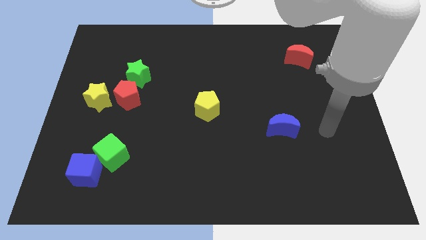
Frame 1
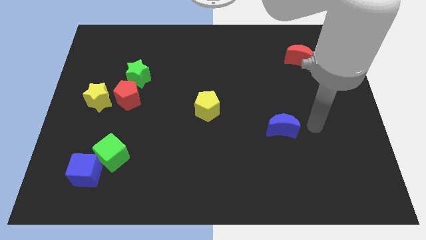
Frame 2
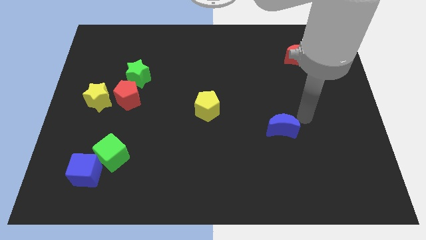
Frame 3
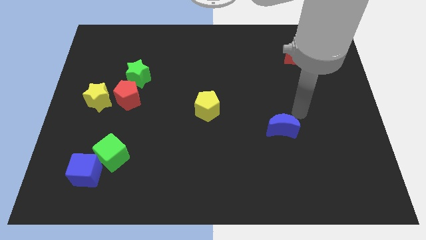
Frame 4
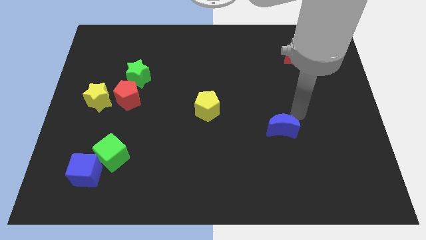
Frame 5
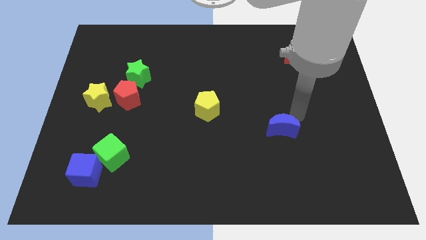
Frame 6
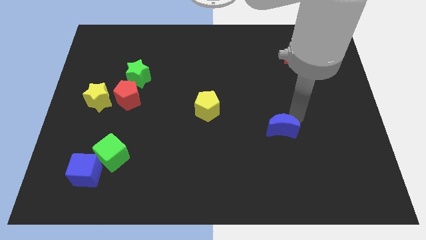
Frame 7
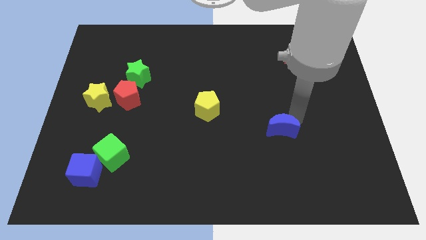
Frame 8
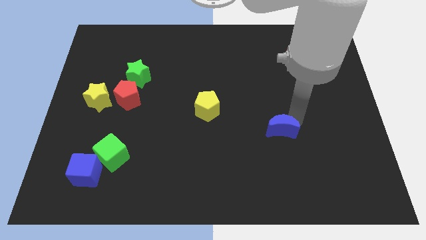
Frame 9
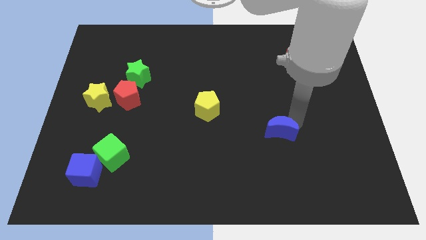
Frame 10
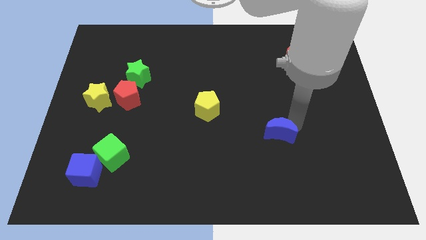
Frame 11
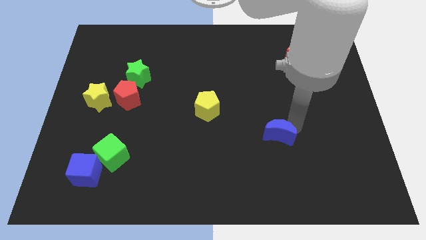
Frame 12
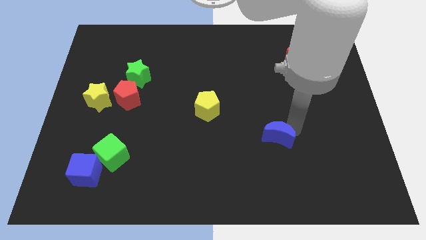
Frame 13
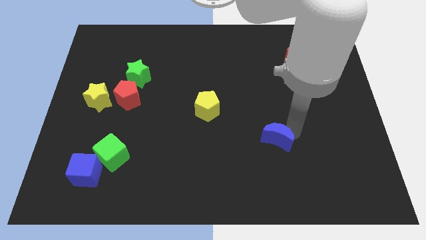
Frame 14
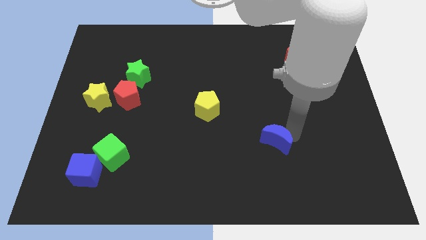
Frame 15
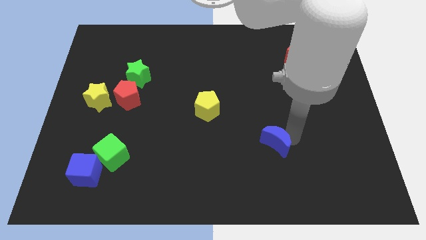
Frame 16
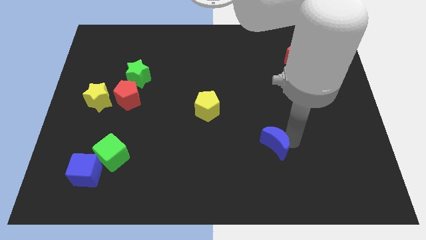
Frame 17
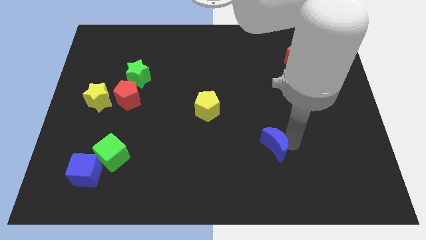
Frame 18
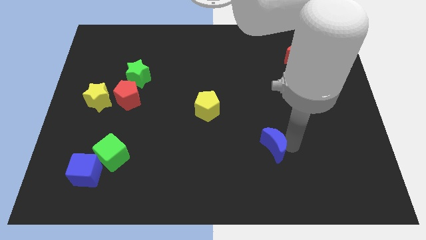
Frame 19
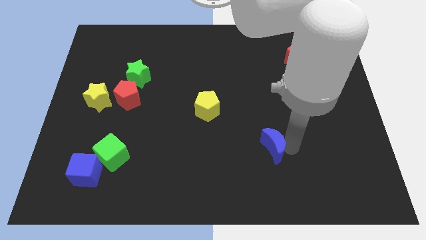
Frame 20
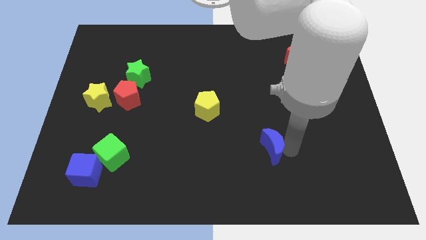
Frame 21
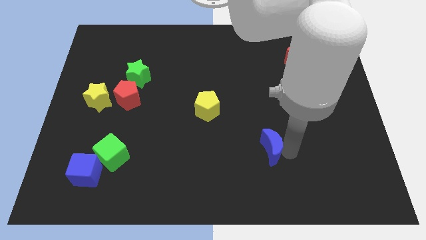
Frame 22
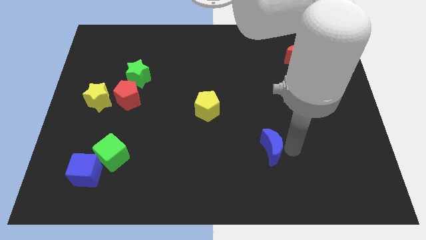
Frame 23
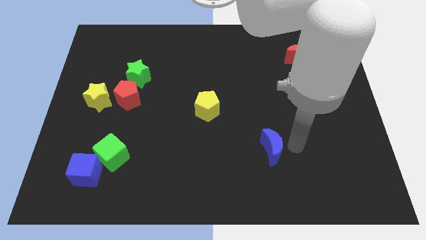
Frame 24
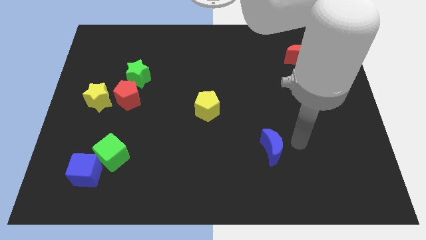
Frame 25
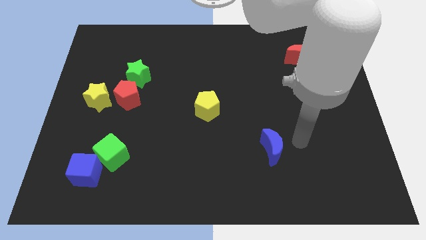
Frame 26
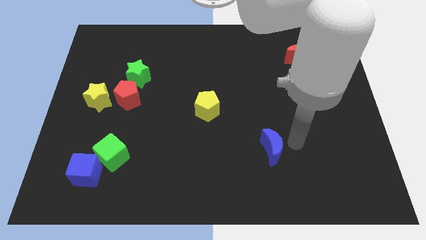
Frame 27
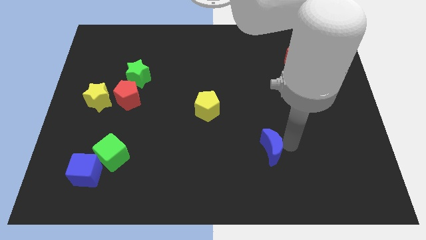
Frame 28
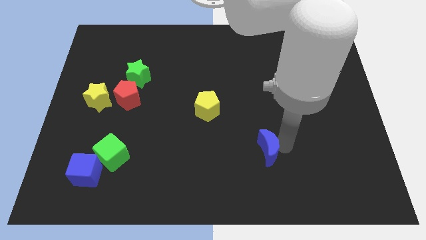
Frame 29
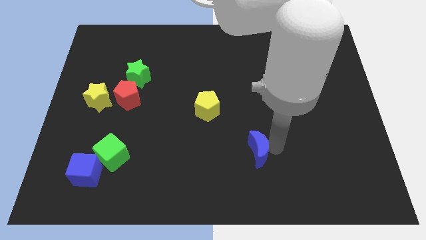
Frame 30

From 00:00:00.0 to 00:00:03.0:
push the blue moon diagonally down and left a little

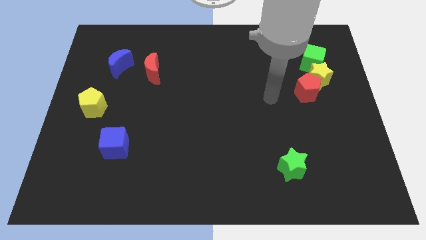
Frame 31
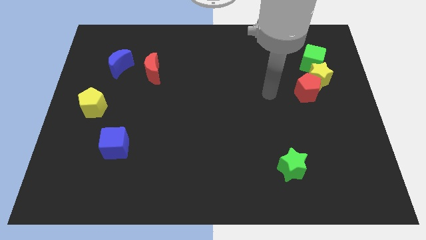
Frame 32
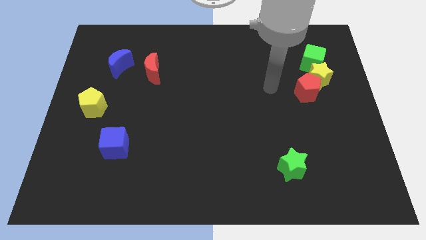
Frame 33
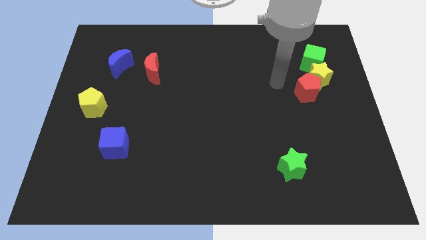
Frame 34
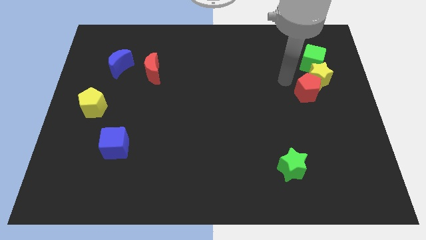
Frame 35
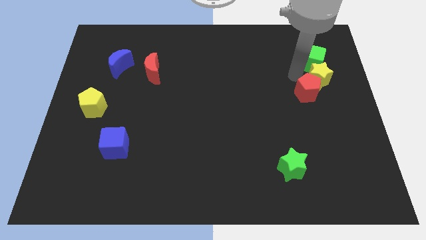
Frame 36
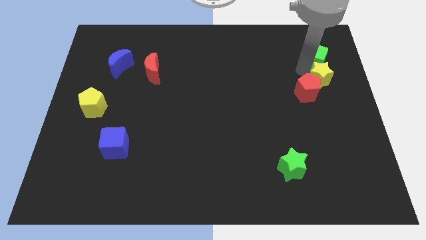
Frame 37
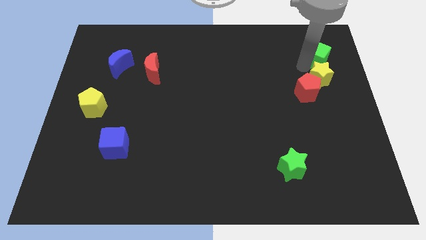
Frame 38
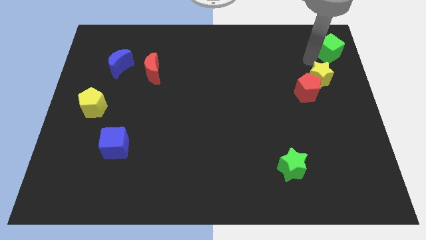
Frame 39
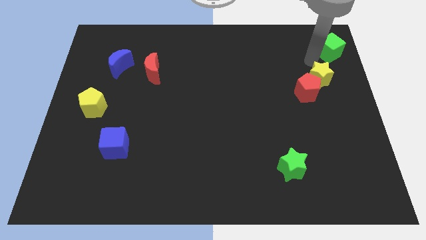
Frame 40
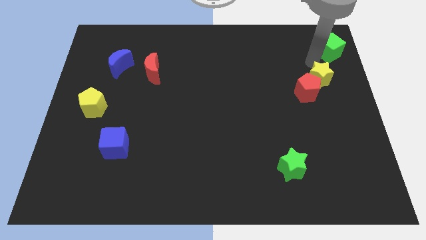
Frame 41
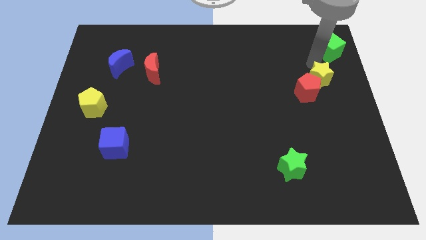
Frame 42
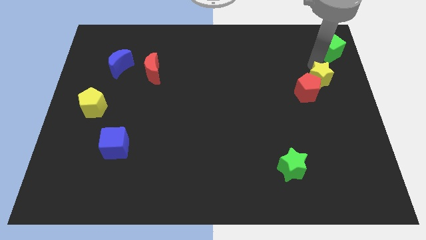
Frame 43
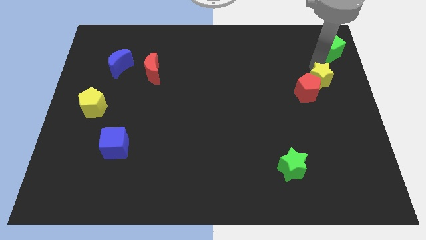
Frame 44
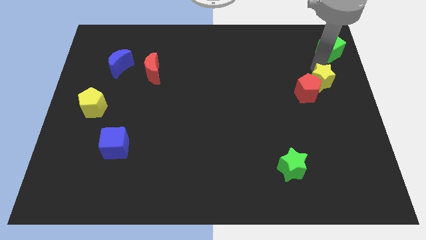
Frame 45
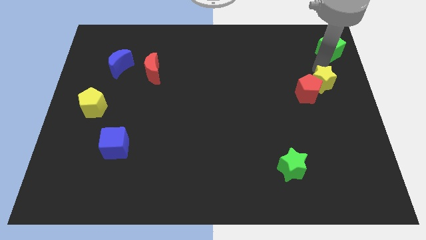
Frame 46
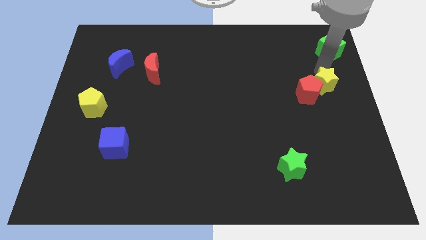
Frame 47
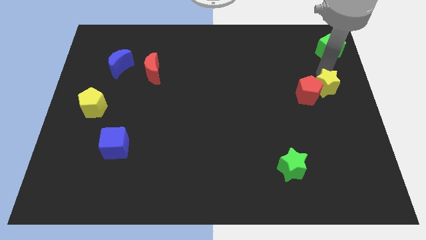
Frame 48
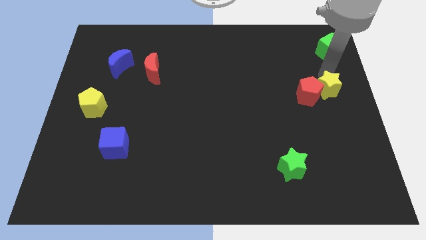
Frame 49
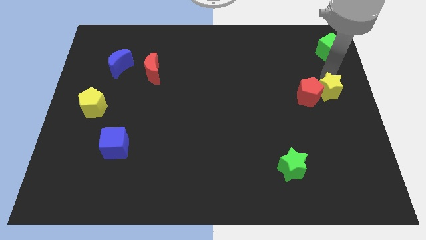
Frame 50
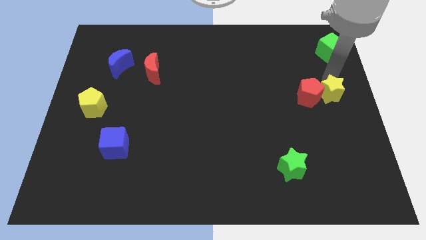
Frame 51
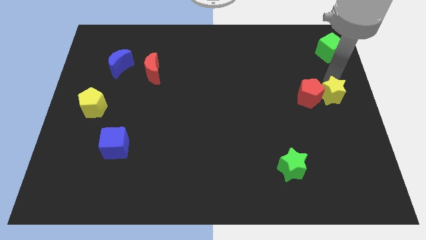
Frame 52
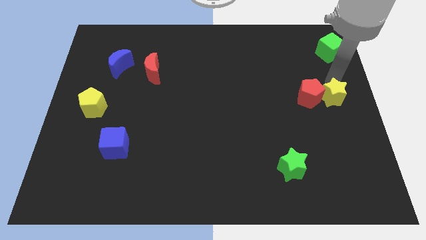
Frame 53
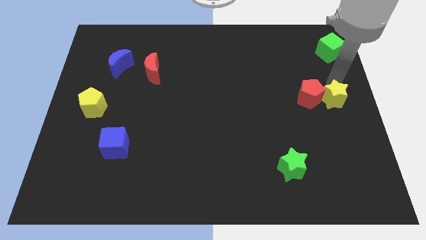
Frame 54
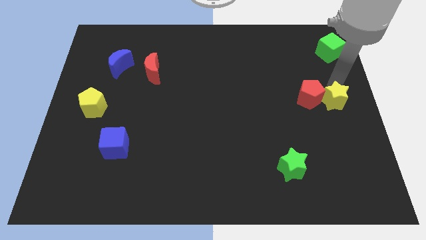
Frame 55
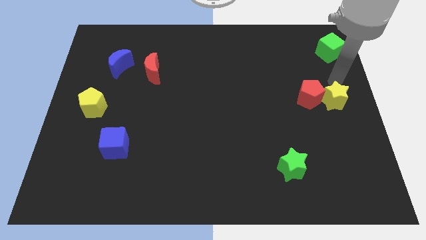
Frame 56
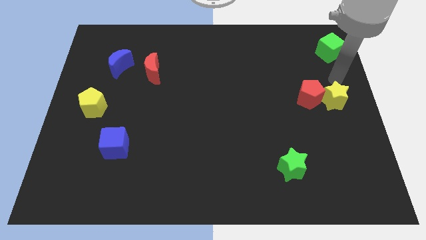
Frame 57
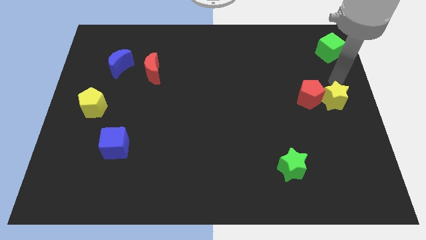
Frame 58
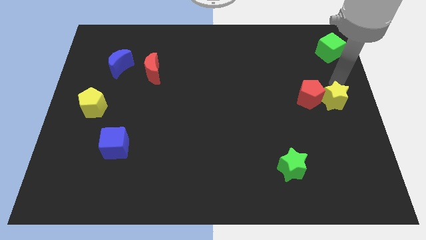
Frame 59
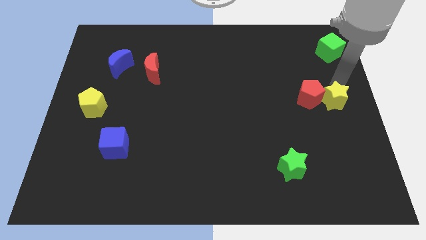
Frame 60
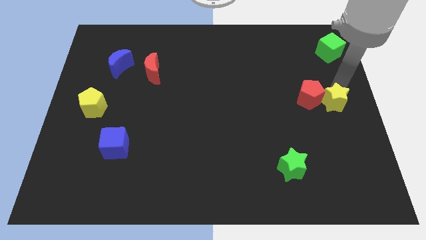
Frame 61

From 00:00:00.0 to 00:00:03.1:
push the yellow star somewhat downwards

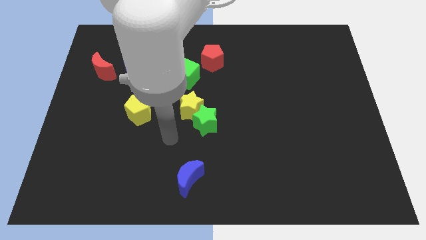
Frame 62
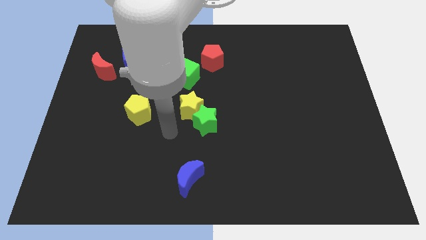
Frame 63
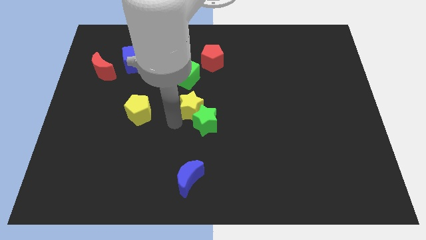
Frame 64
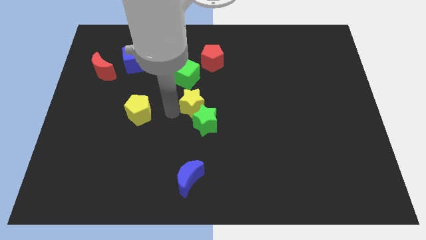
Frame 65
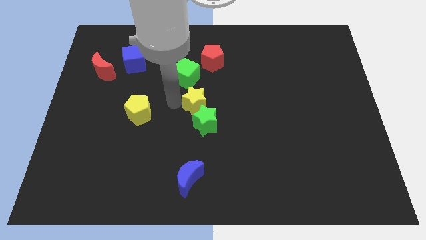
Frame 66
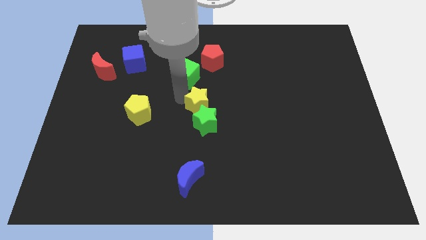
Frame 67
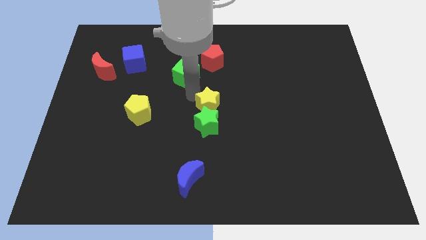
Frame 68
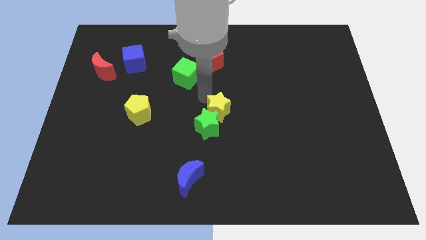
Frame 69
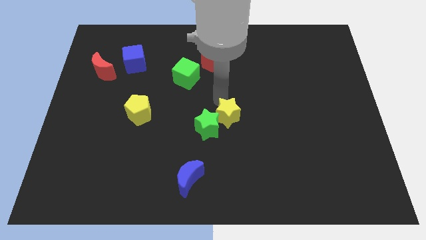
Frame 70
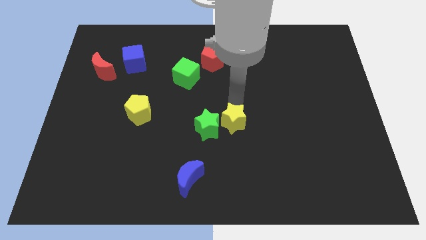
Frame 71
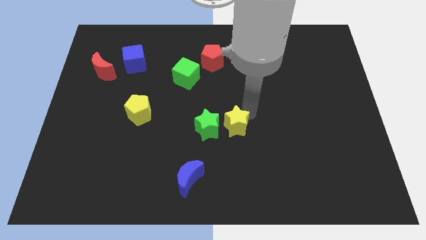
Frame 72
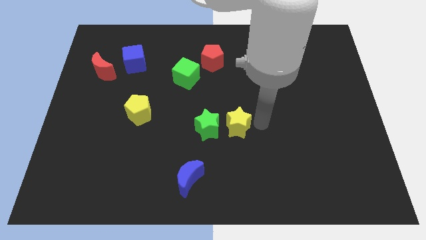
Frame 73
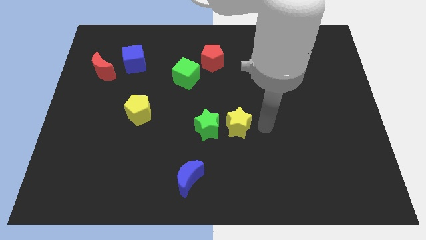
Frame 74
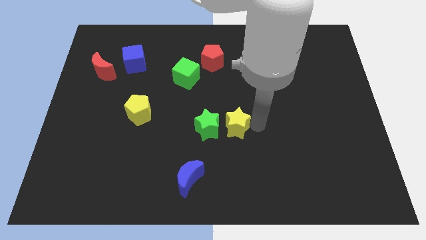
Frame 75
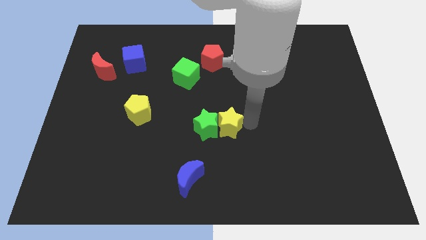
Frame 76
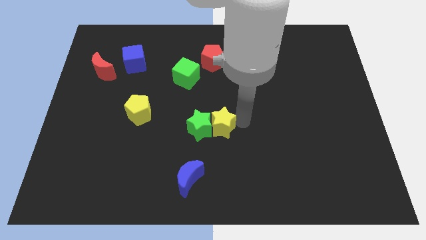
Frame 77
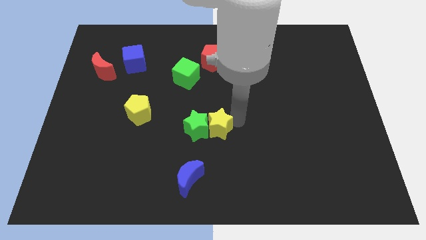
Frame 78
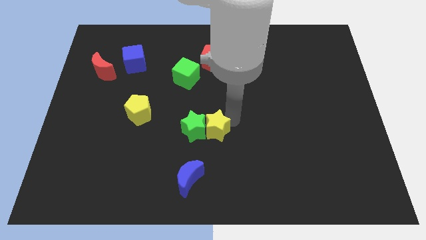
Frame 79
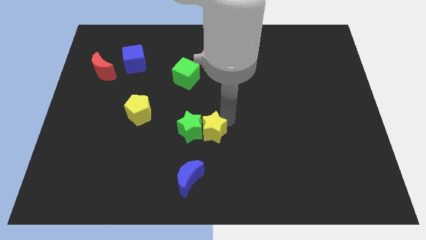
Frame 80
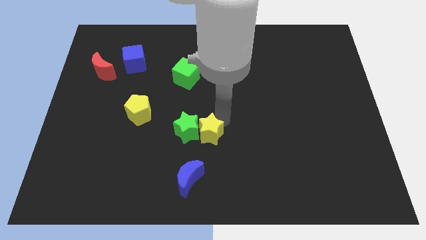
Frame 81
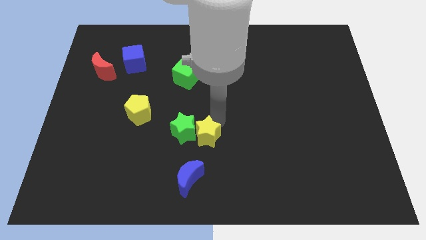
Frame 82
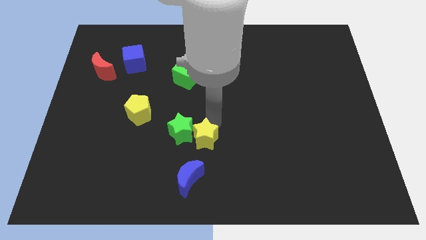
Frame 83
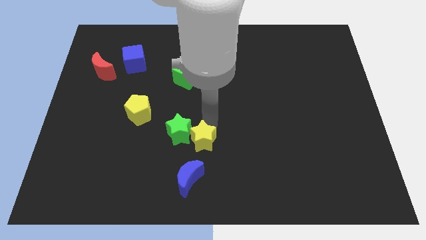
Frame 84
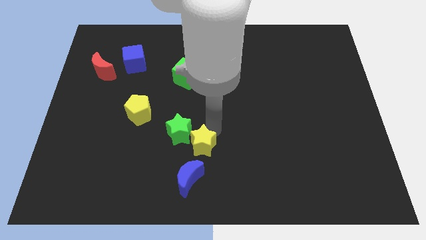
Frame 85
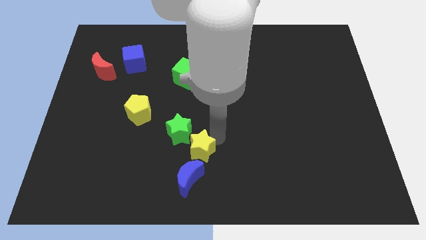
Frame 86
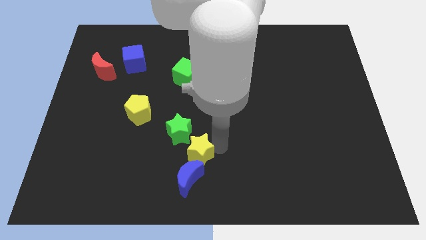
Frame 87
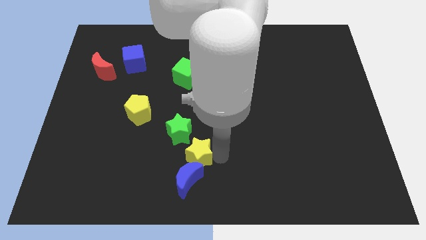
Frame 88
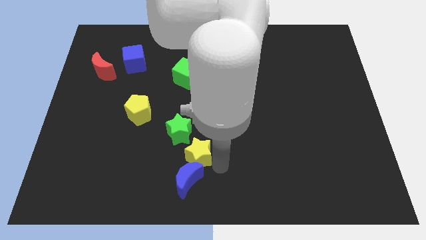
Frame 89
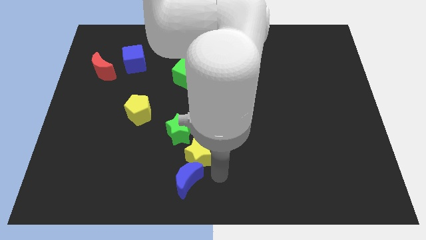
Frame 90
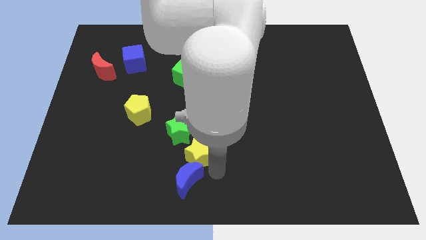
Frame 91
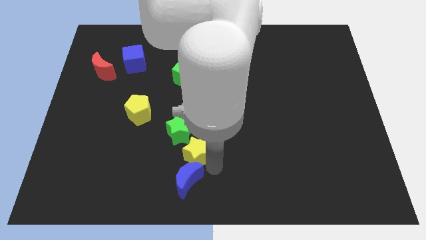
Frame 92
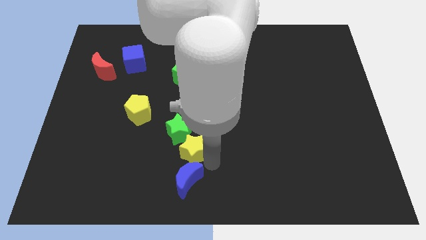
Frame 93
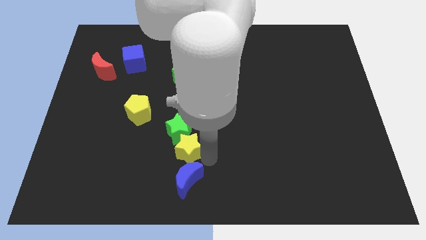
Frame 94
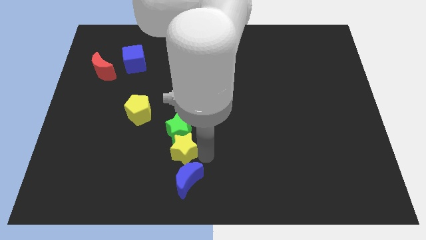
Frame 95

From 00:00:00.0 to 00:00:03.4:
push the yellow star downwards and to the left diagonally slightly
